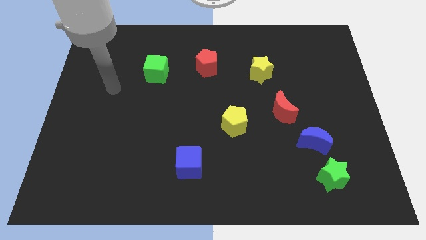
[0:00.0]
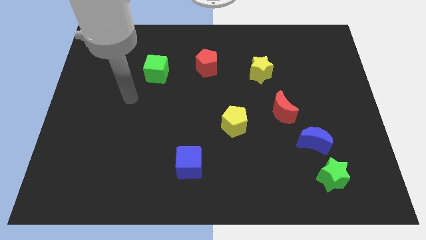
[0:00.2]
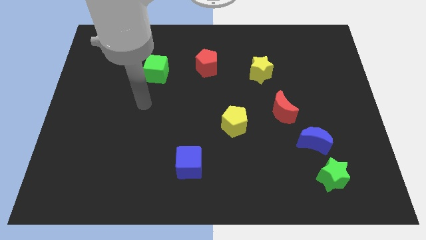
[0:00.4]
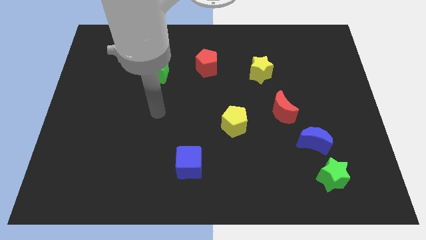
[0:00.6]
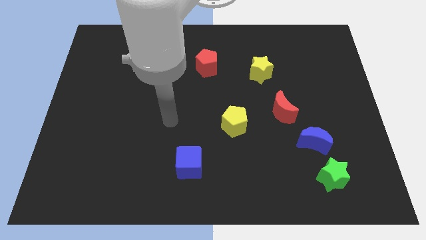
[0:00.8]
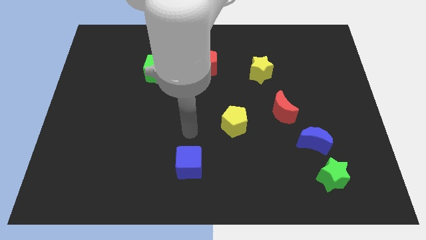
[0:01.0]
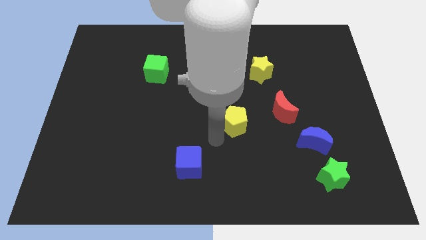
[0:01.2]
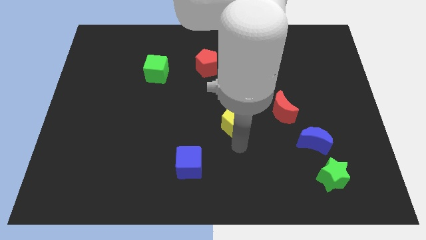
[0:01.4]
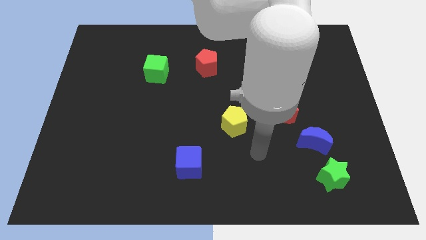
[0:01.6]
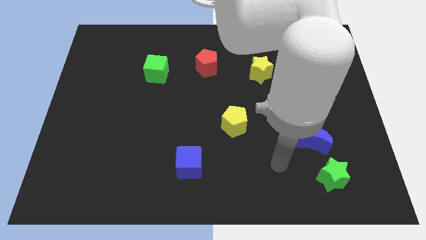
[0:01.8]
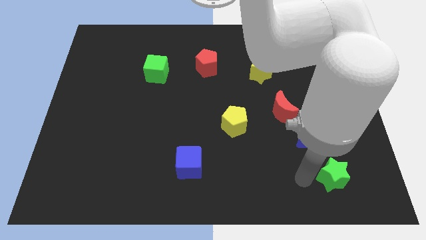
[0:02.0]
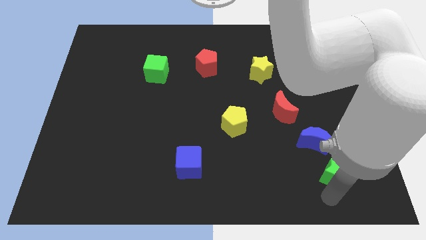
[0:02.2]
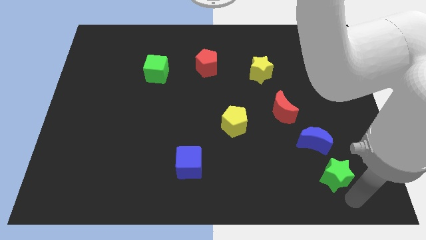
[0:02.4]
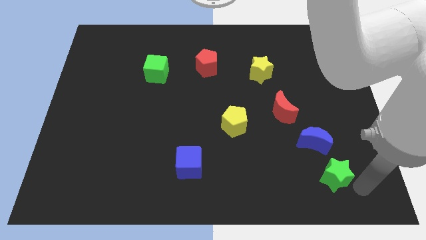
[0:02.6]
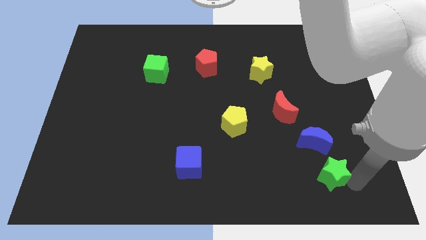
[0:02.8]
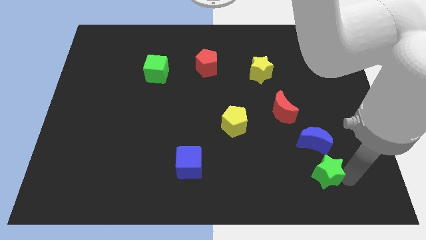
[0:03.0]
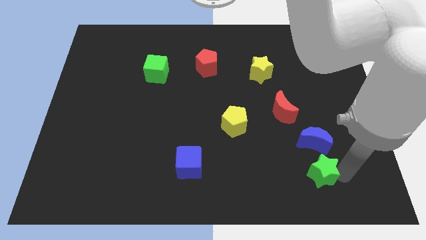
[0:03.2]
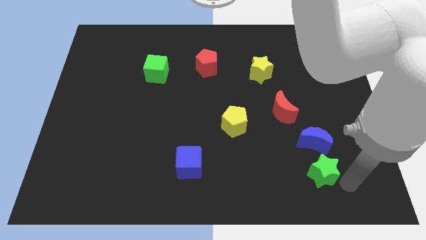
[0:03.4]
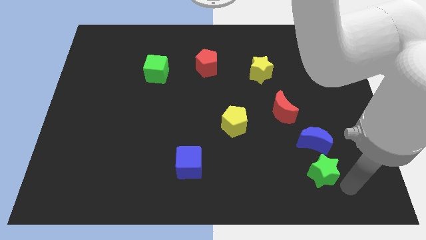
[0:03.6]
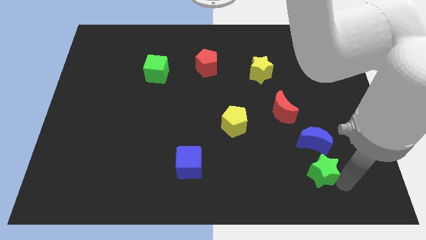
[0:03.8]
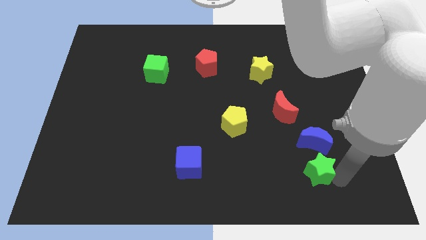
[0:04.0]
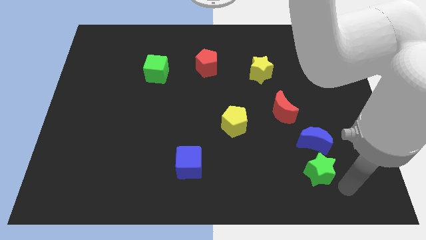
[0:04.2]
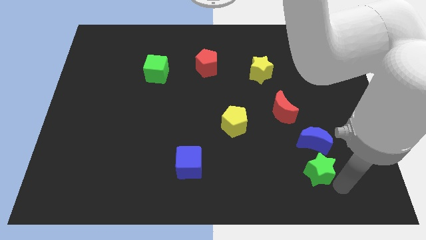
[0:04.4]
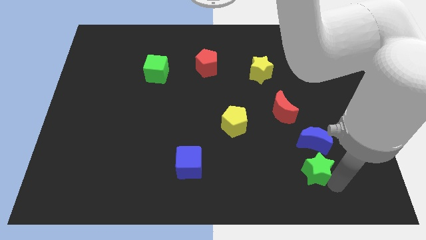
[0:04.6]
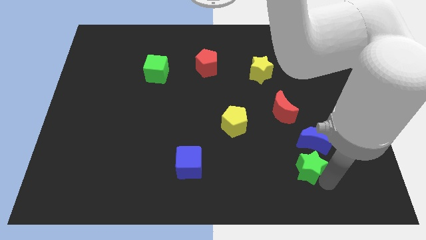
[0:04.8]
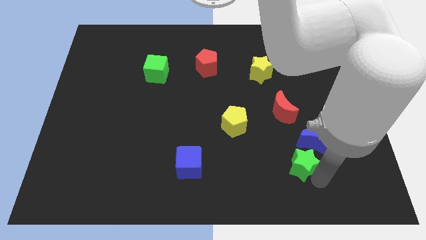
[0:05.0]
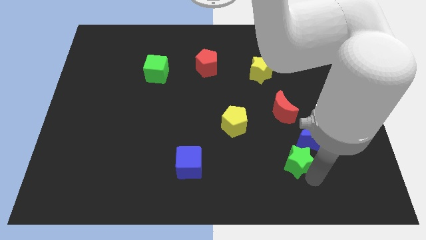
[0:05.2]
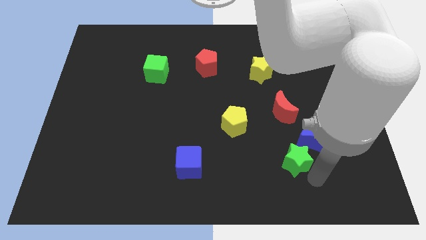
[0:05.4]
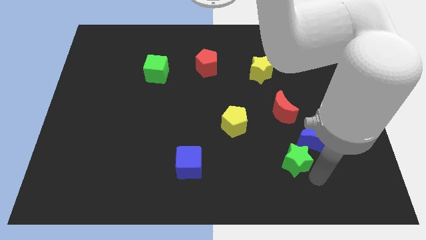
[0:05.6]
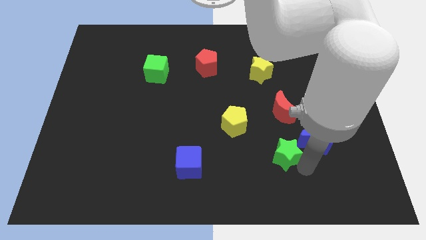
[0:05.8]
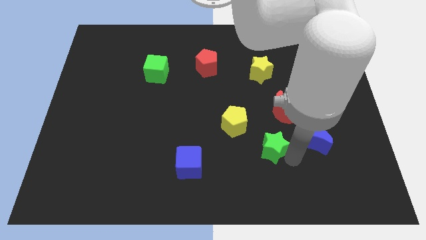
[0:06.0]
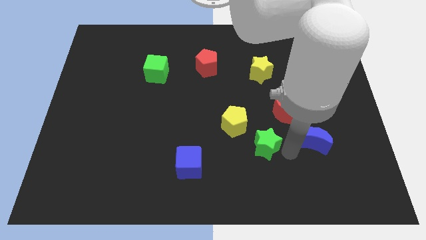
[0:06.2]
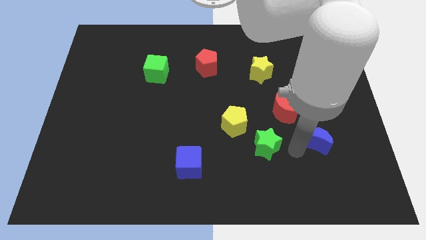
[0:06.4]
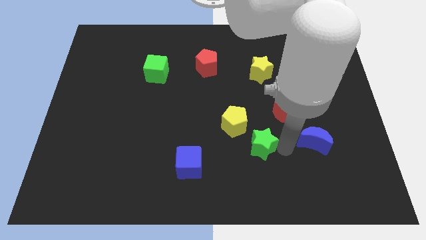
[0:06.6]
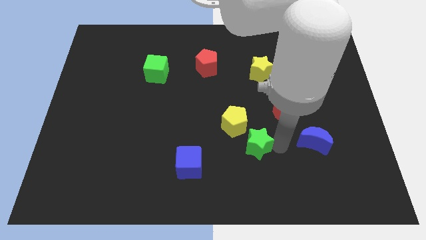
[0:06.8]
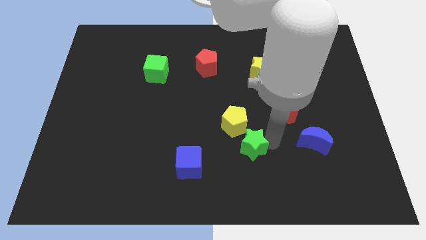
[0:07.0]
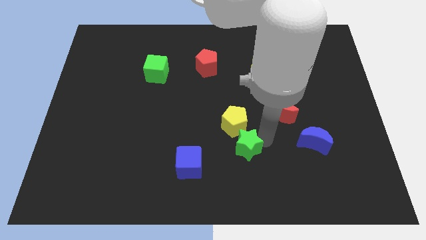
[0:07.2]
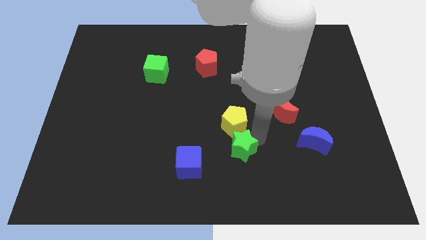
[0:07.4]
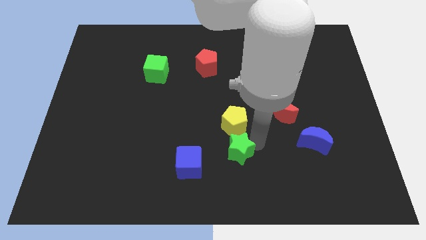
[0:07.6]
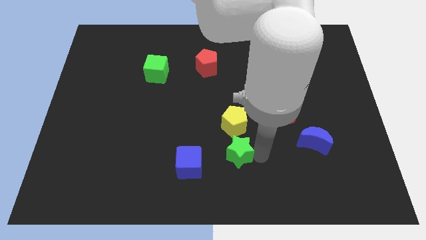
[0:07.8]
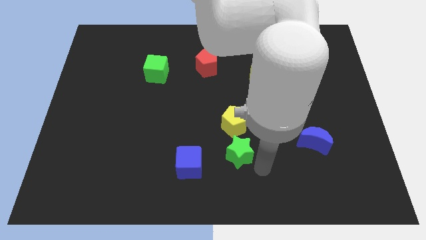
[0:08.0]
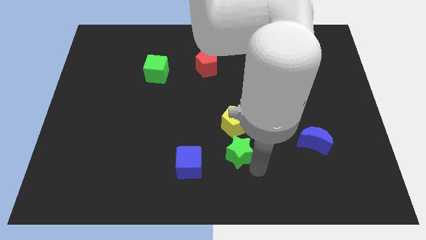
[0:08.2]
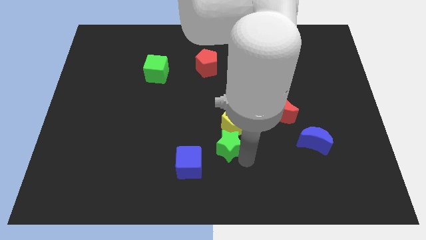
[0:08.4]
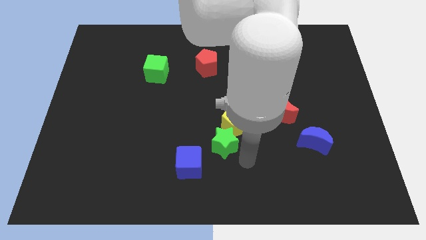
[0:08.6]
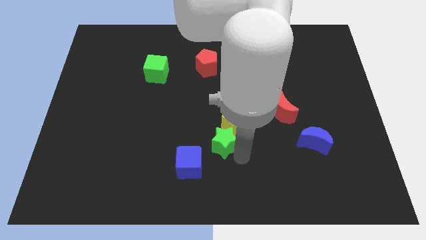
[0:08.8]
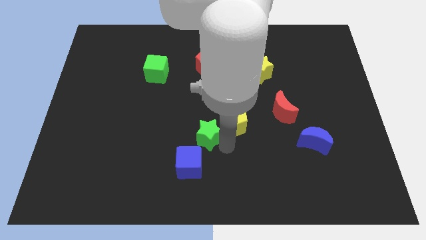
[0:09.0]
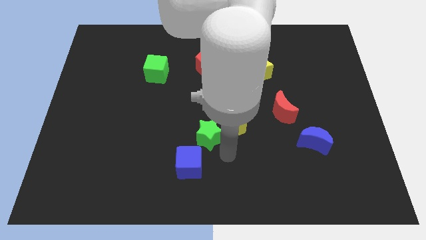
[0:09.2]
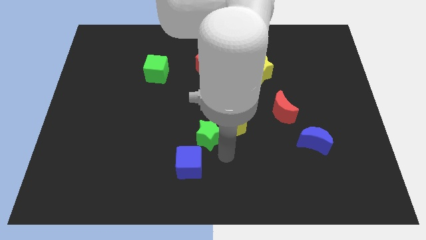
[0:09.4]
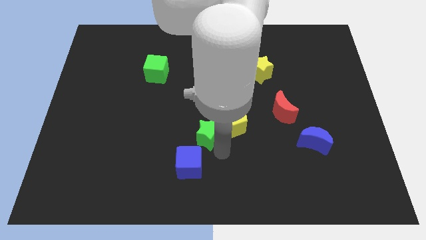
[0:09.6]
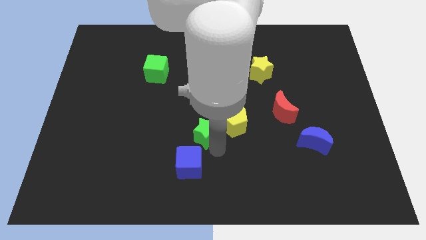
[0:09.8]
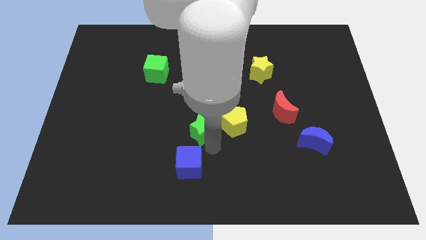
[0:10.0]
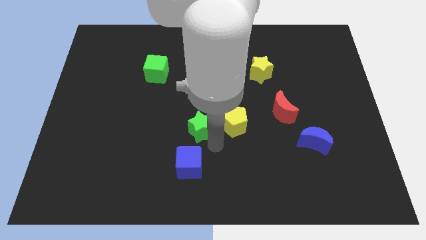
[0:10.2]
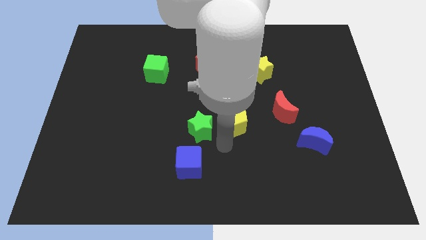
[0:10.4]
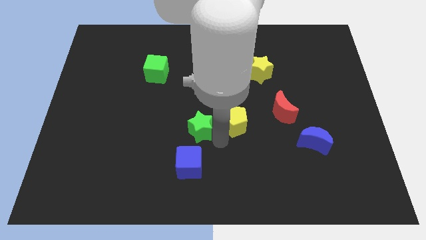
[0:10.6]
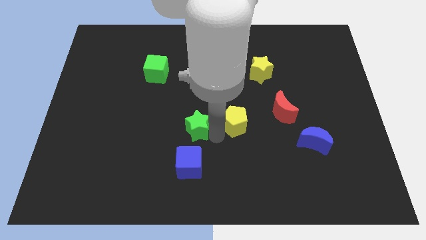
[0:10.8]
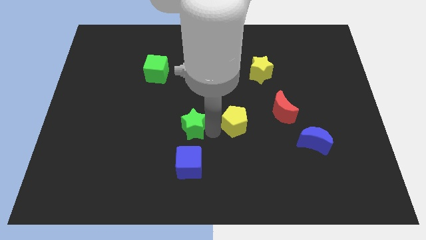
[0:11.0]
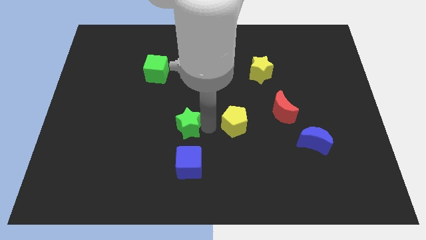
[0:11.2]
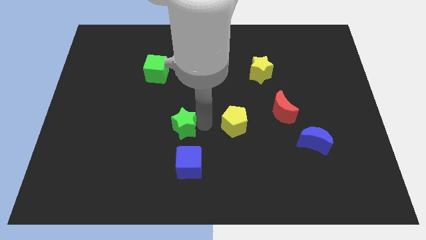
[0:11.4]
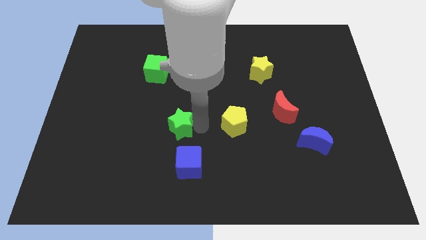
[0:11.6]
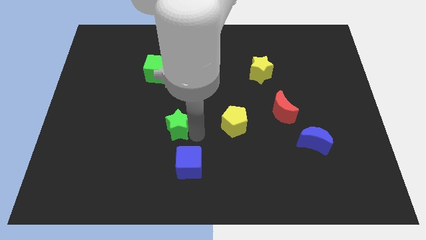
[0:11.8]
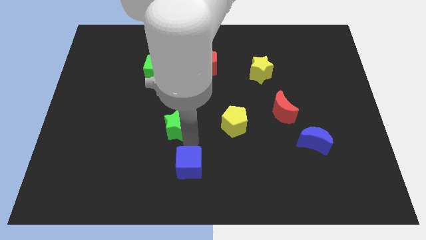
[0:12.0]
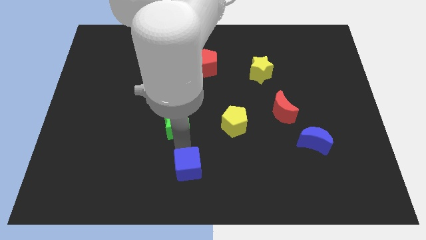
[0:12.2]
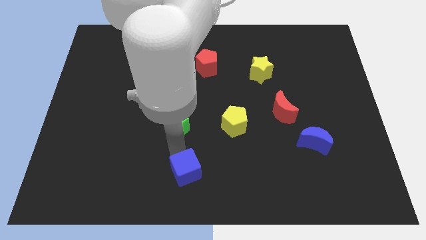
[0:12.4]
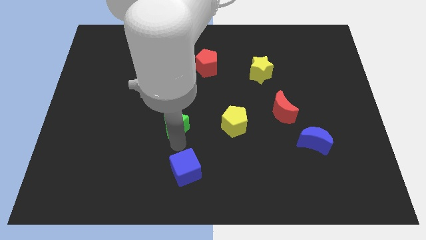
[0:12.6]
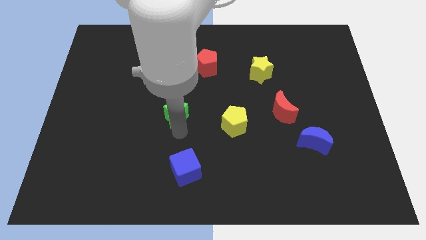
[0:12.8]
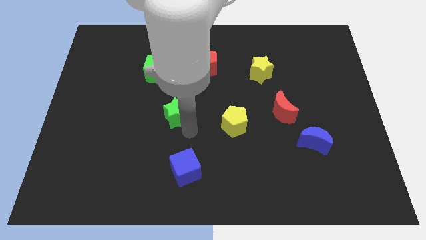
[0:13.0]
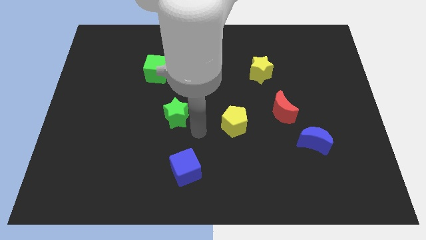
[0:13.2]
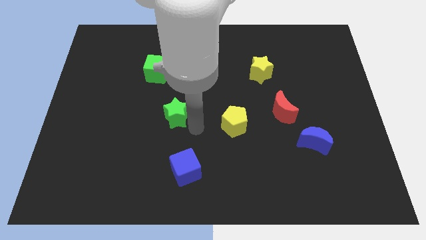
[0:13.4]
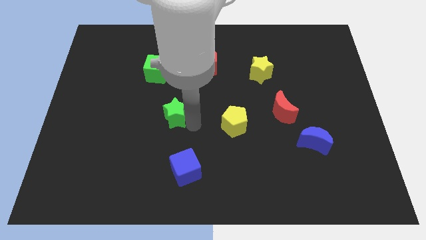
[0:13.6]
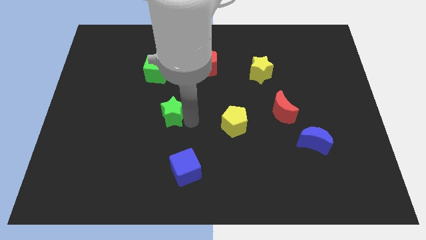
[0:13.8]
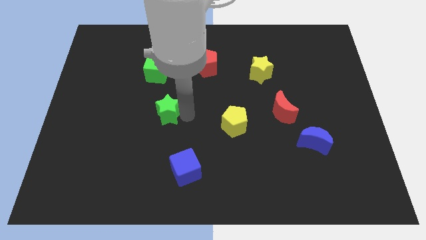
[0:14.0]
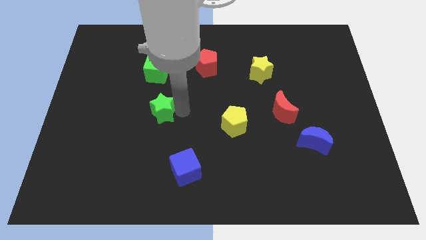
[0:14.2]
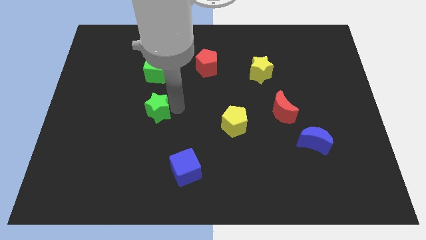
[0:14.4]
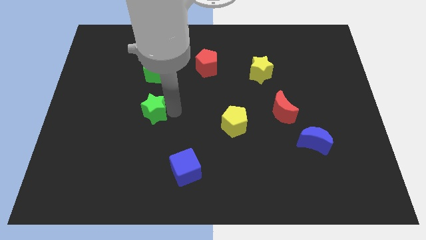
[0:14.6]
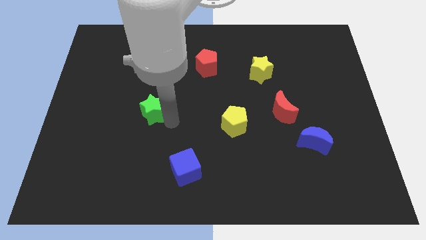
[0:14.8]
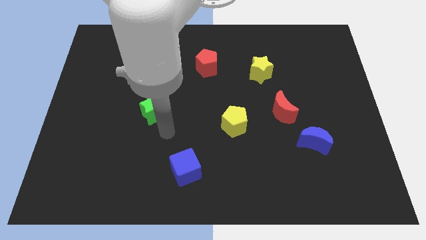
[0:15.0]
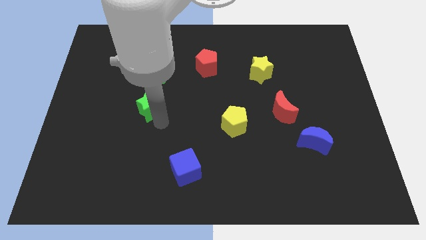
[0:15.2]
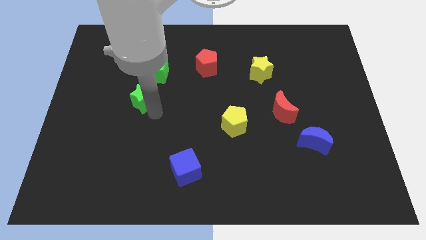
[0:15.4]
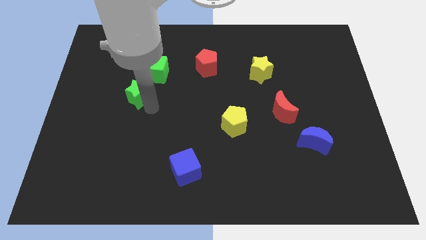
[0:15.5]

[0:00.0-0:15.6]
put the green star to the bottom left of the green cube
